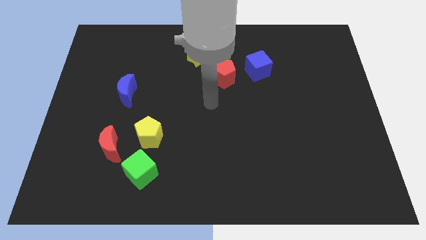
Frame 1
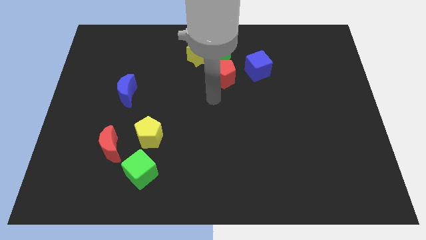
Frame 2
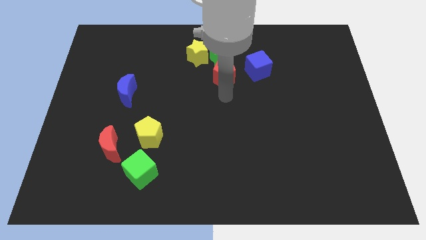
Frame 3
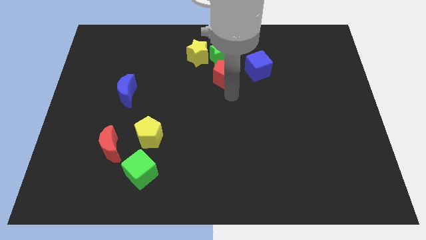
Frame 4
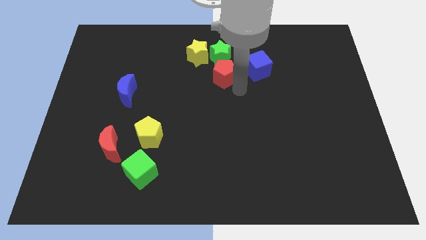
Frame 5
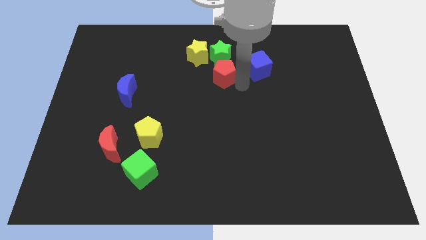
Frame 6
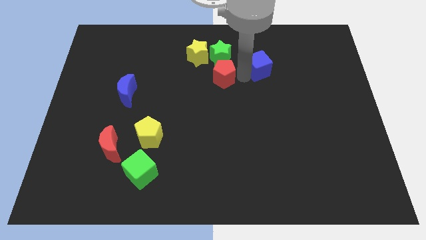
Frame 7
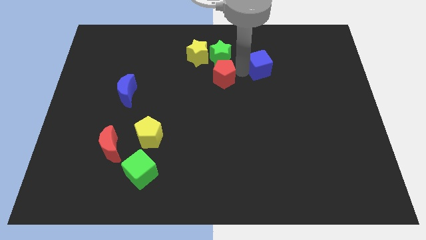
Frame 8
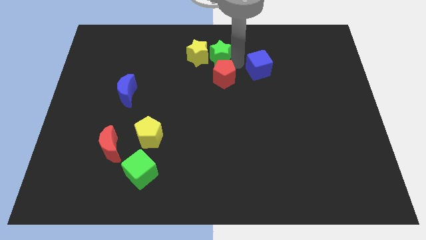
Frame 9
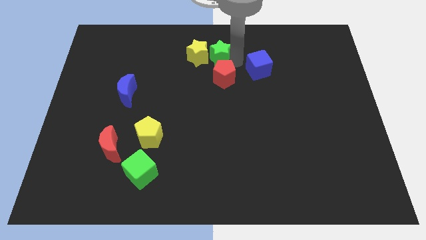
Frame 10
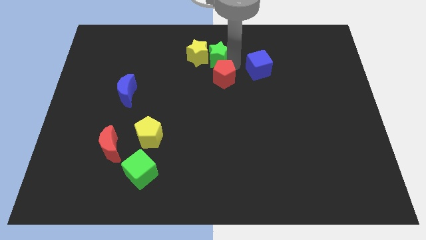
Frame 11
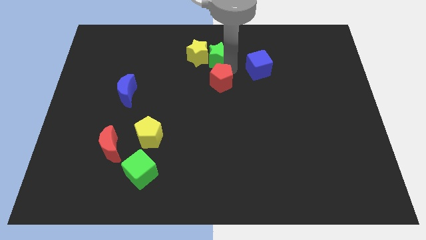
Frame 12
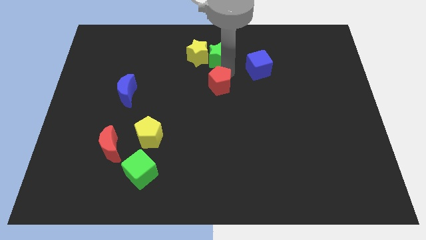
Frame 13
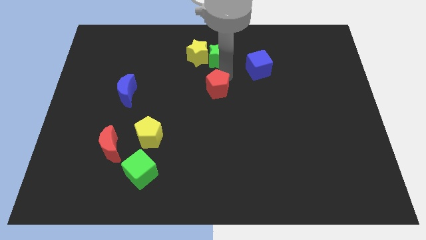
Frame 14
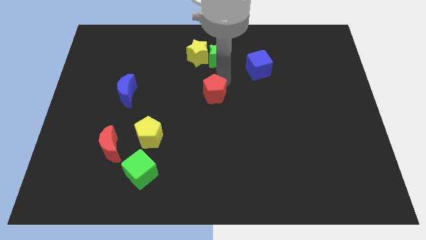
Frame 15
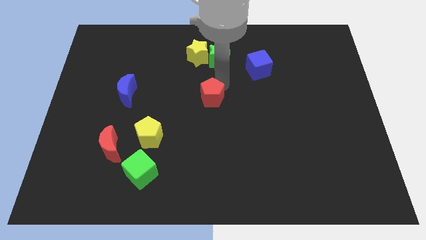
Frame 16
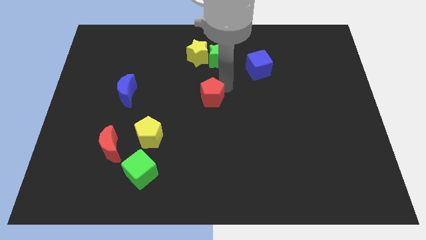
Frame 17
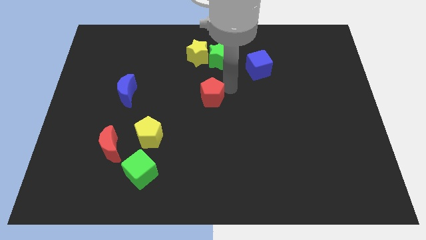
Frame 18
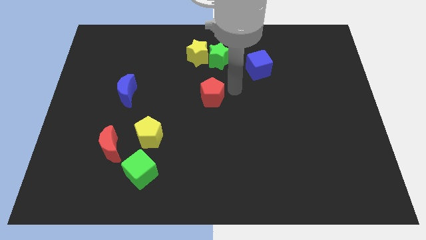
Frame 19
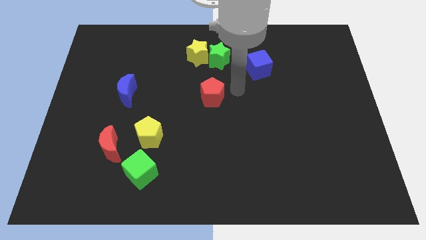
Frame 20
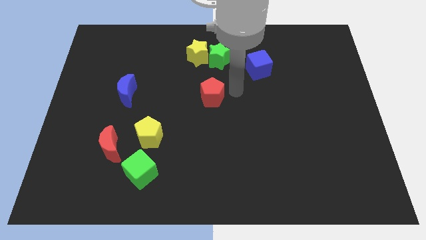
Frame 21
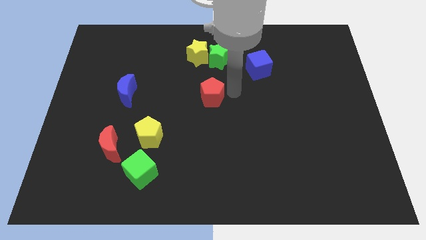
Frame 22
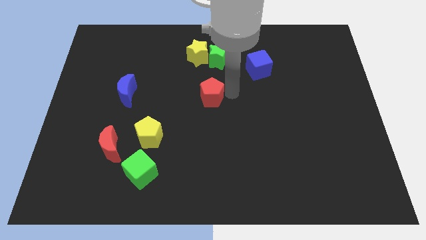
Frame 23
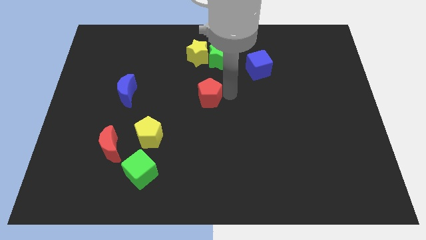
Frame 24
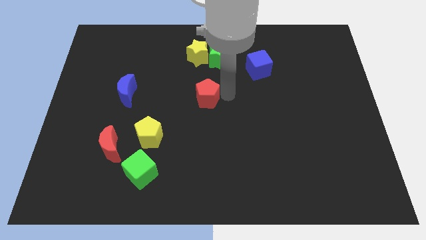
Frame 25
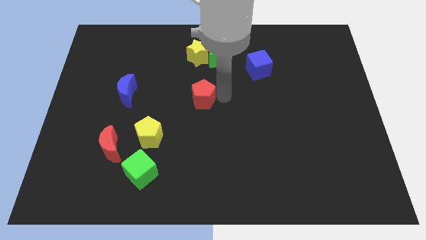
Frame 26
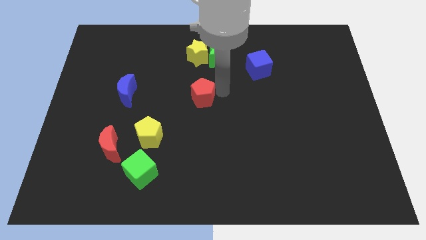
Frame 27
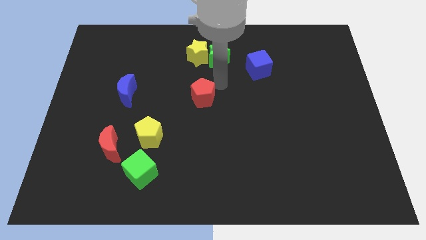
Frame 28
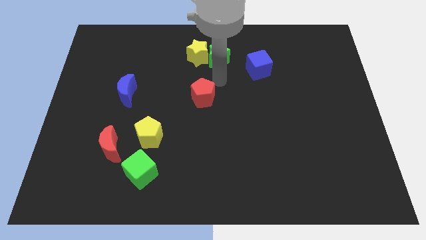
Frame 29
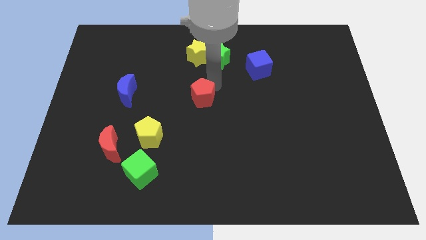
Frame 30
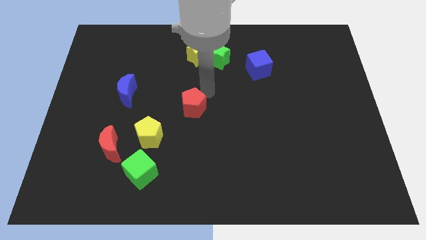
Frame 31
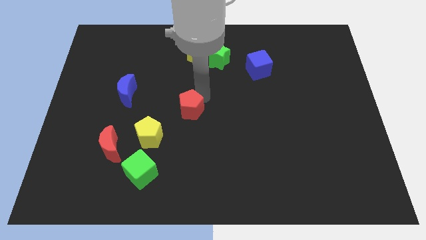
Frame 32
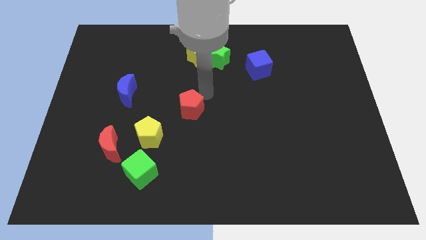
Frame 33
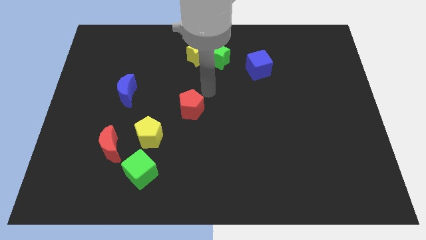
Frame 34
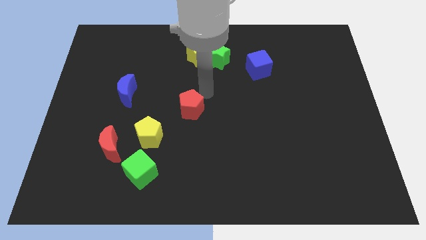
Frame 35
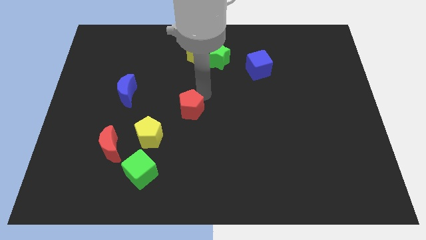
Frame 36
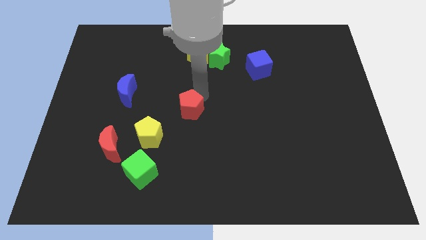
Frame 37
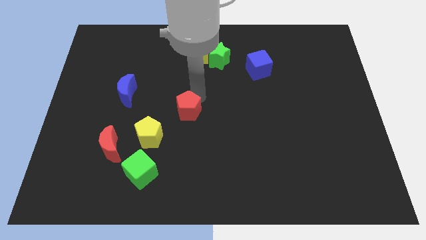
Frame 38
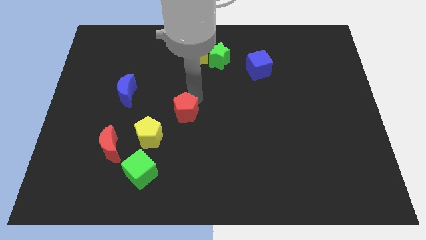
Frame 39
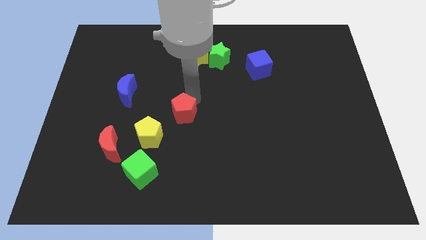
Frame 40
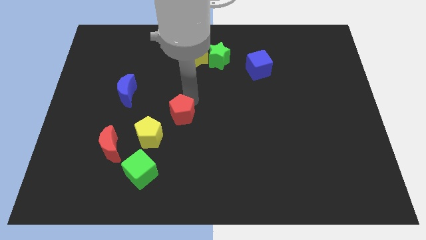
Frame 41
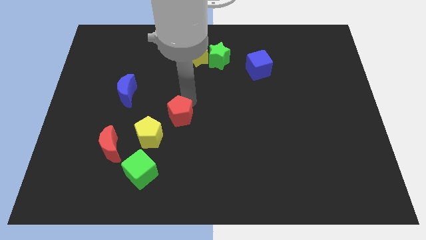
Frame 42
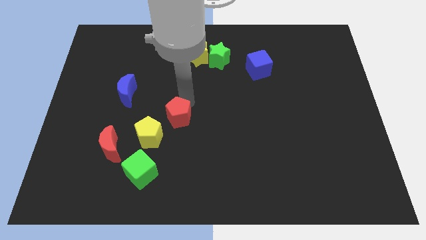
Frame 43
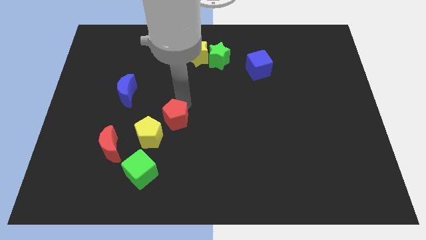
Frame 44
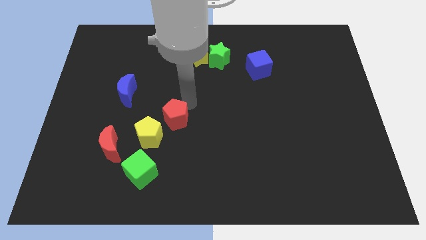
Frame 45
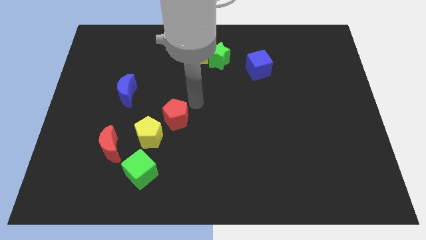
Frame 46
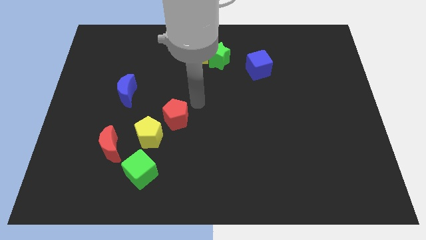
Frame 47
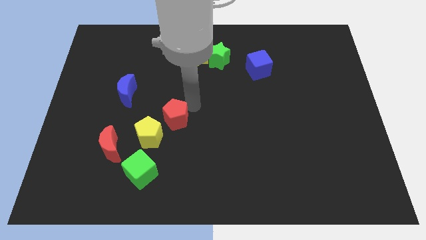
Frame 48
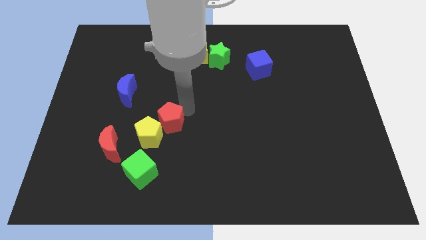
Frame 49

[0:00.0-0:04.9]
slide the red pentagon to the yellow pentagon

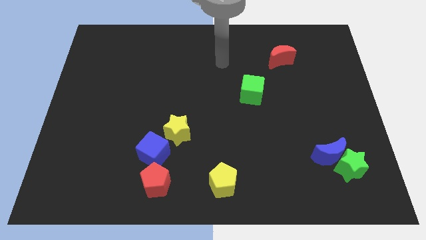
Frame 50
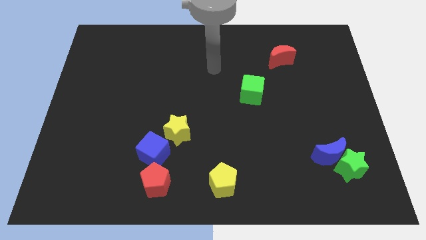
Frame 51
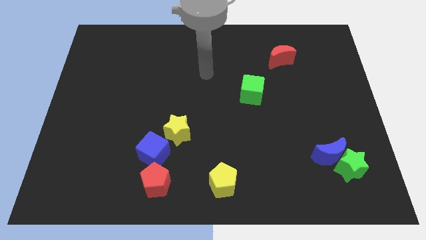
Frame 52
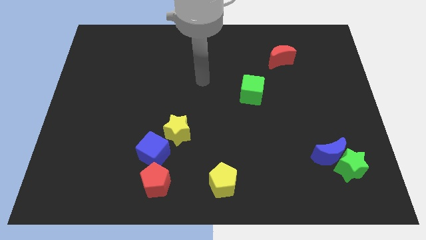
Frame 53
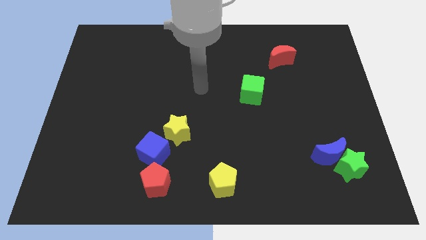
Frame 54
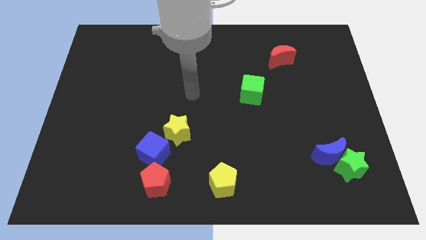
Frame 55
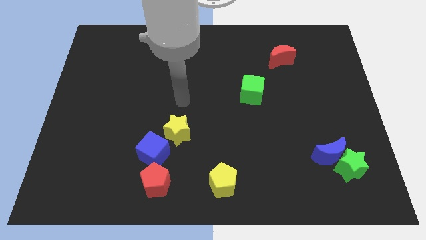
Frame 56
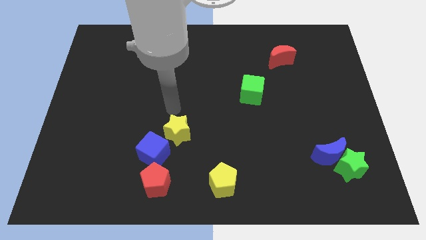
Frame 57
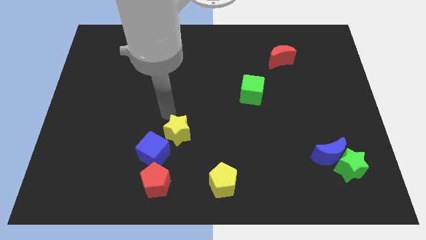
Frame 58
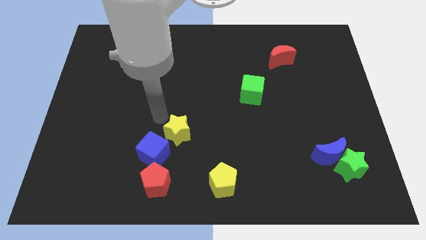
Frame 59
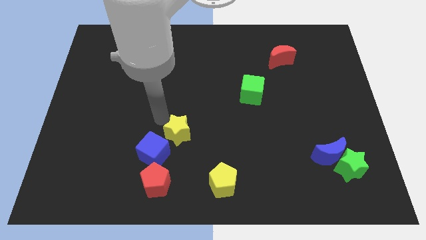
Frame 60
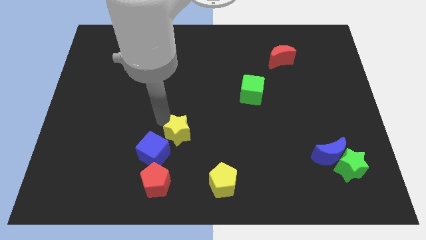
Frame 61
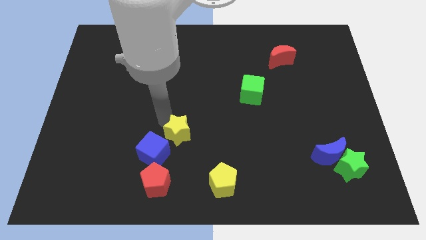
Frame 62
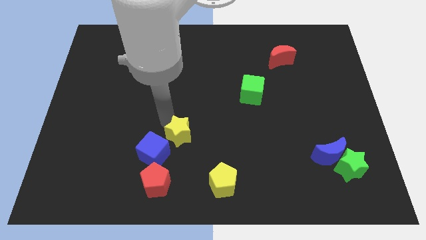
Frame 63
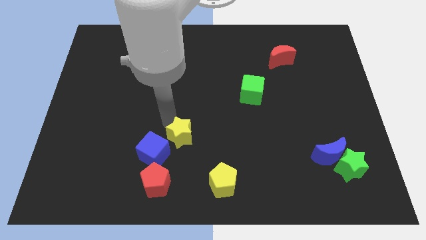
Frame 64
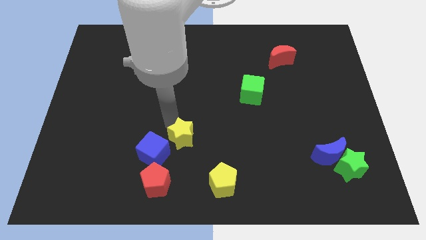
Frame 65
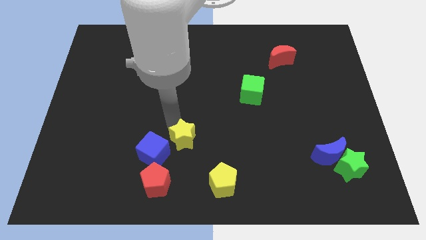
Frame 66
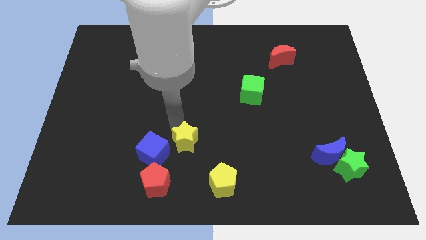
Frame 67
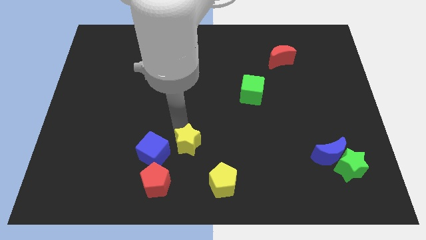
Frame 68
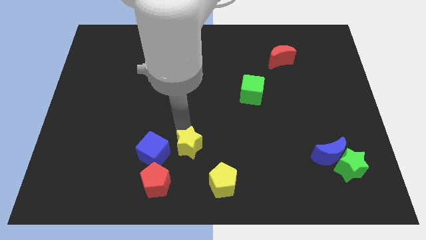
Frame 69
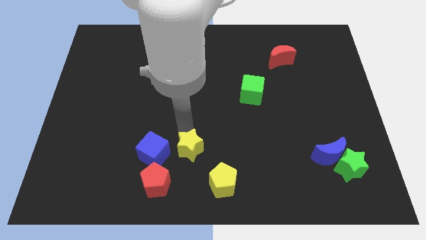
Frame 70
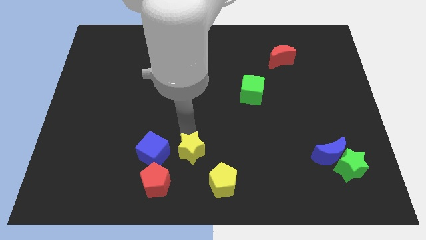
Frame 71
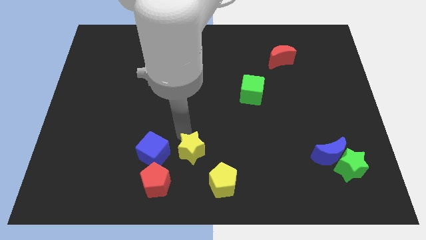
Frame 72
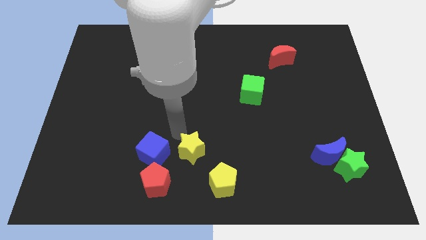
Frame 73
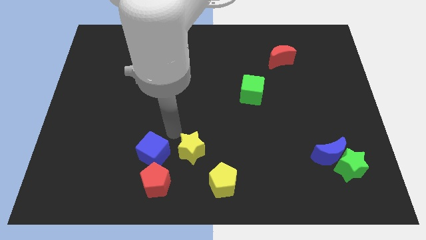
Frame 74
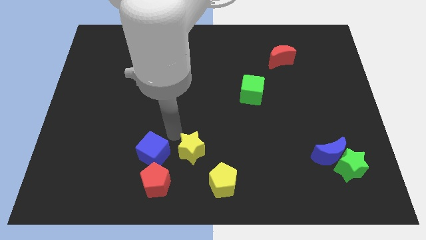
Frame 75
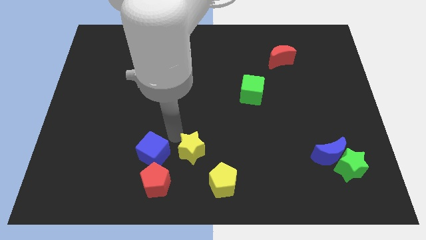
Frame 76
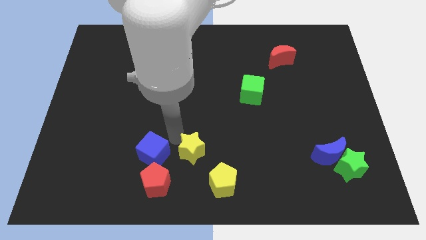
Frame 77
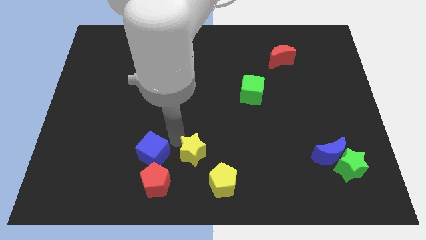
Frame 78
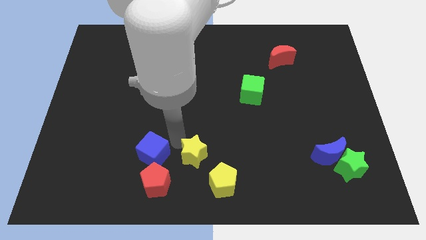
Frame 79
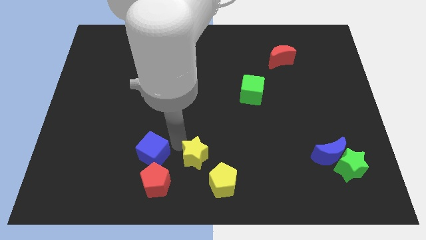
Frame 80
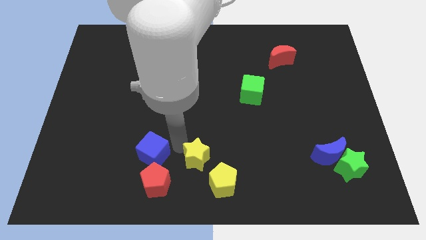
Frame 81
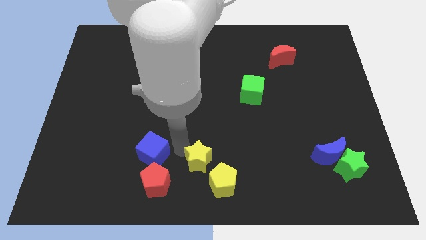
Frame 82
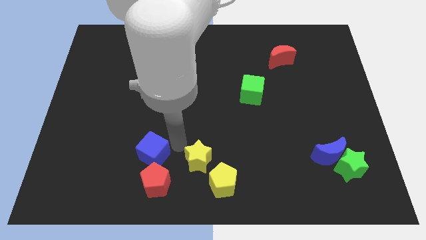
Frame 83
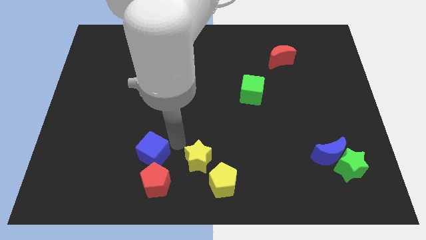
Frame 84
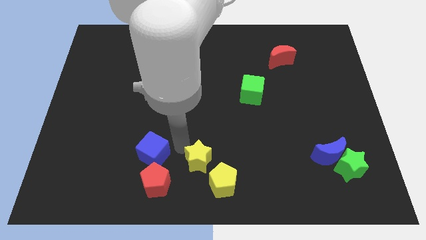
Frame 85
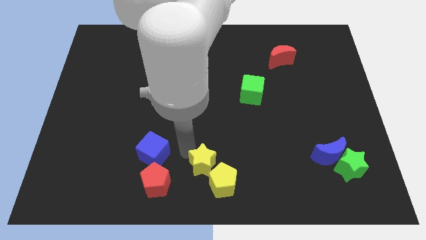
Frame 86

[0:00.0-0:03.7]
push the yellow star close to the yellow pentagon
